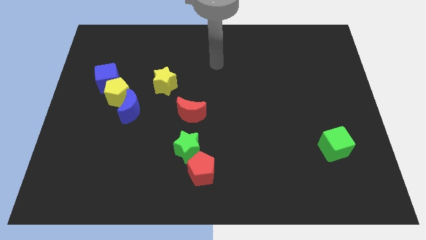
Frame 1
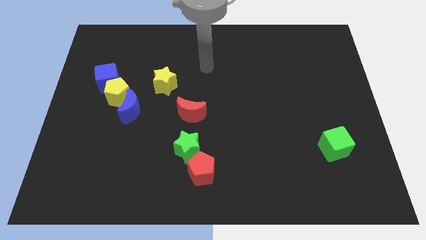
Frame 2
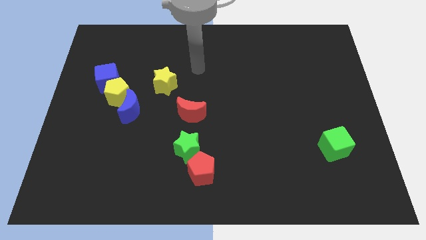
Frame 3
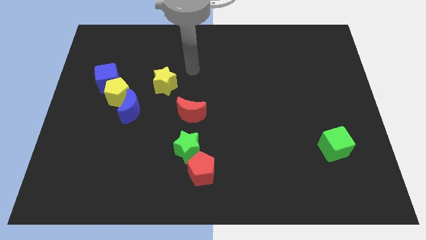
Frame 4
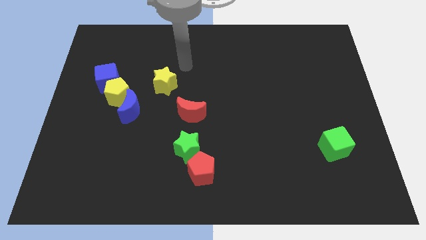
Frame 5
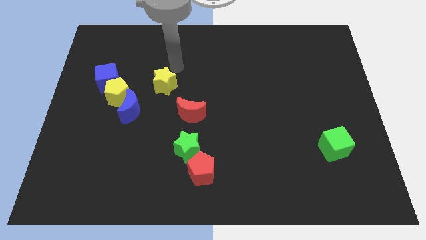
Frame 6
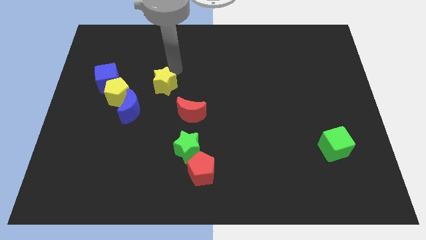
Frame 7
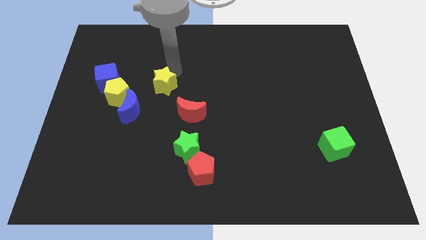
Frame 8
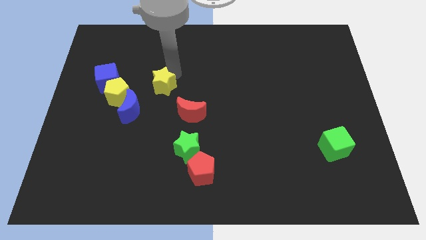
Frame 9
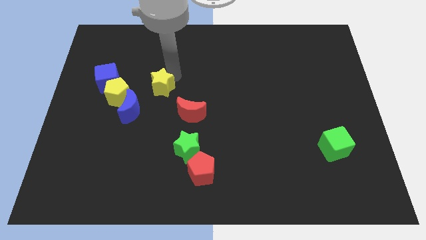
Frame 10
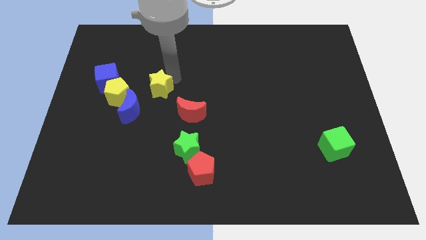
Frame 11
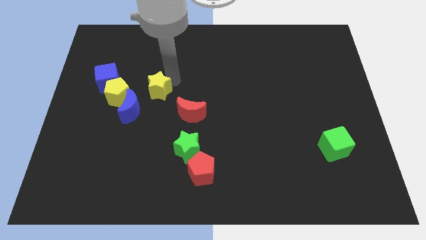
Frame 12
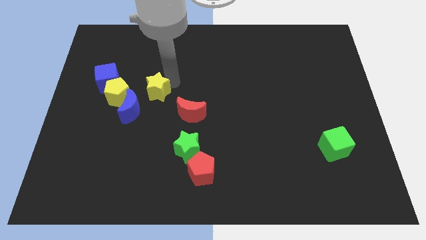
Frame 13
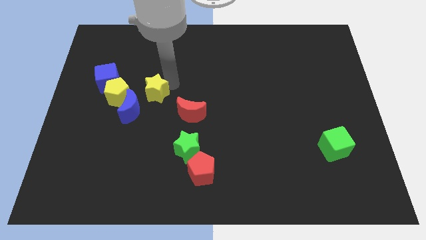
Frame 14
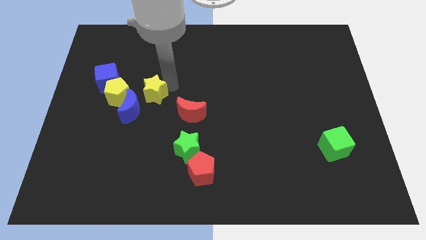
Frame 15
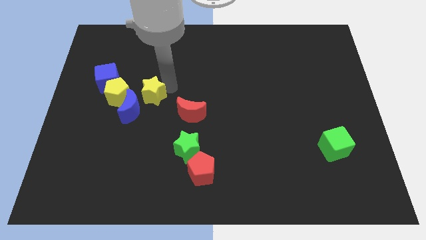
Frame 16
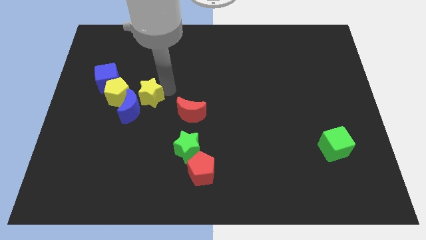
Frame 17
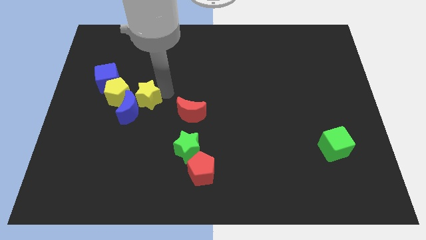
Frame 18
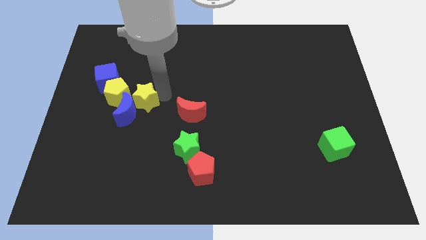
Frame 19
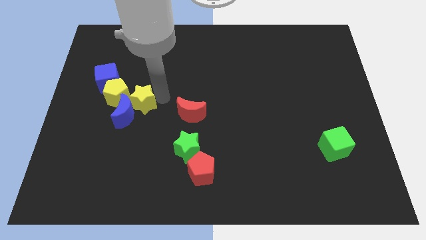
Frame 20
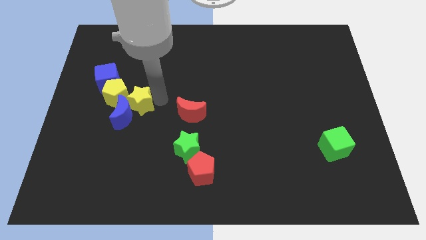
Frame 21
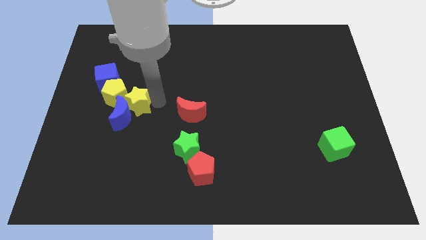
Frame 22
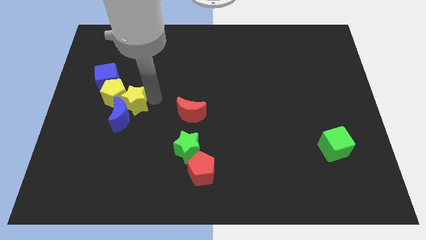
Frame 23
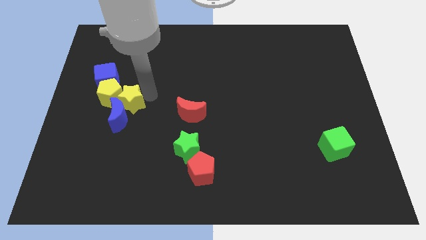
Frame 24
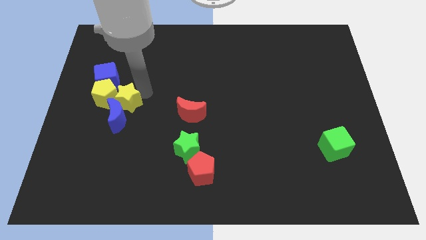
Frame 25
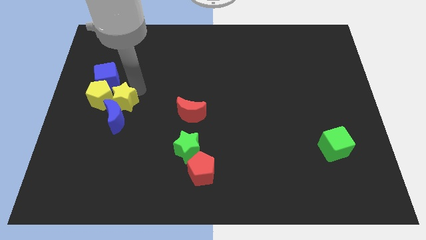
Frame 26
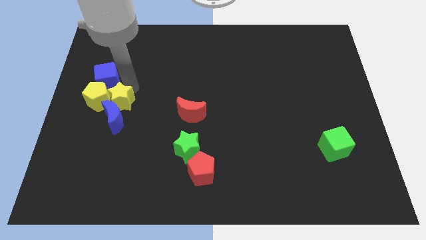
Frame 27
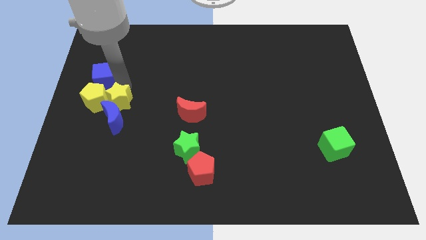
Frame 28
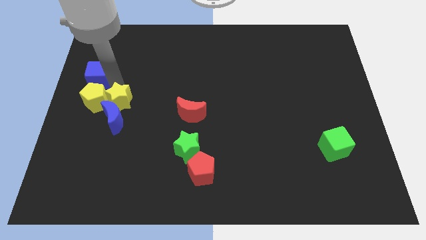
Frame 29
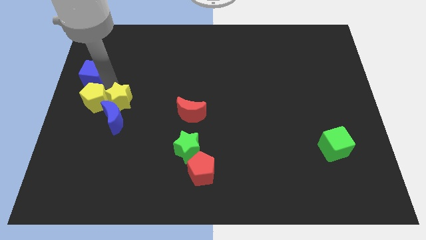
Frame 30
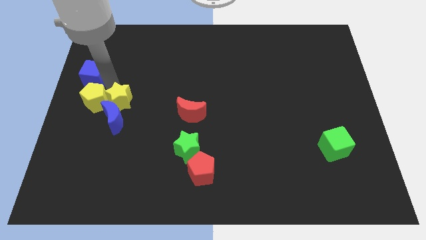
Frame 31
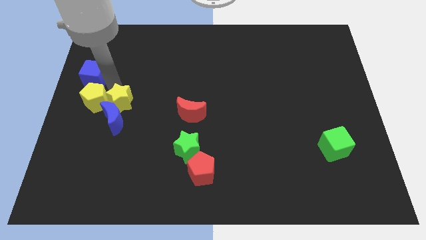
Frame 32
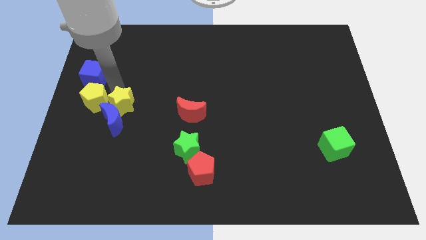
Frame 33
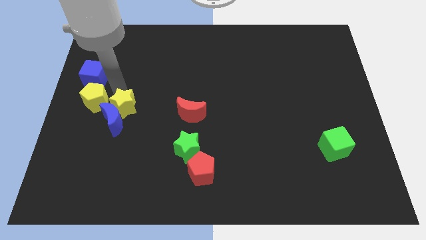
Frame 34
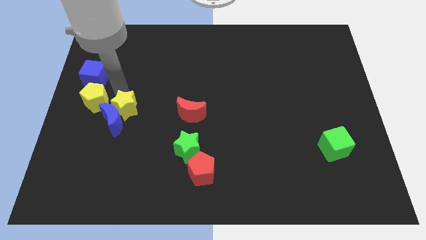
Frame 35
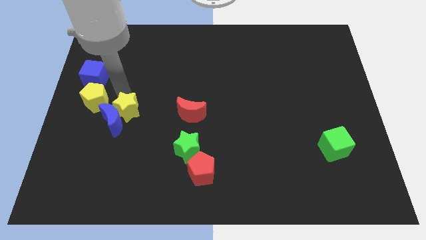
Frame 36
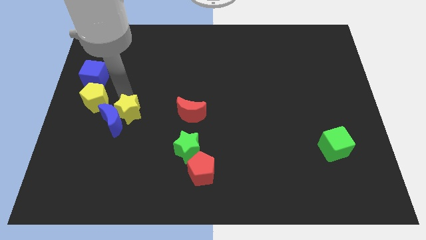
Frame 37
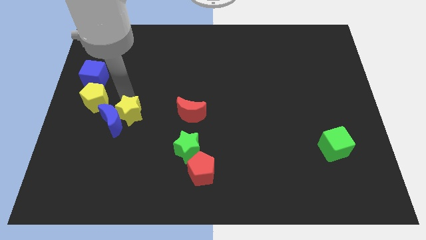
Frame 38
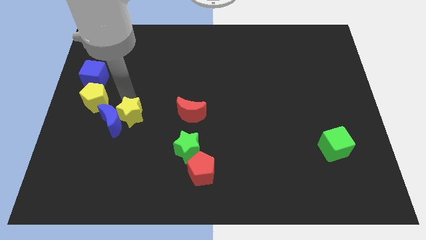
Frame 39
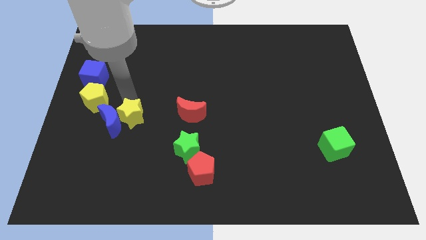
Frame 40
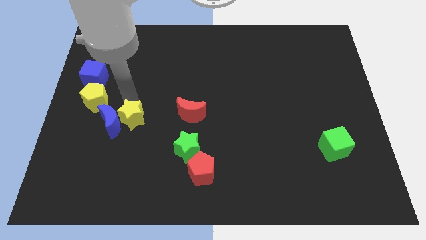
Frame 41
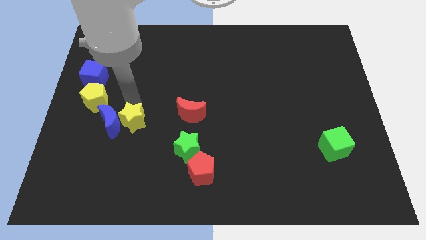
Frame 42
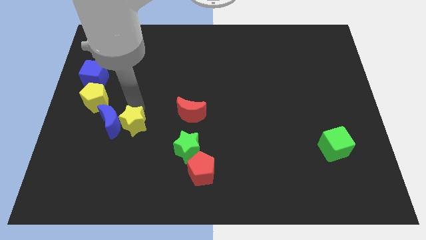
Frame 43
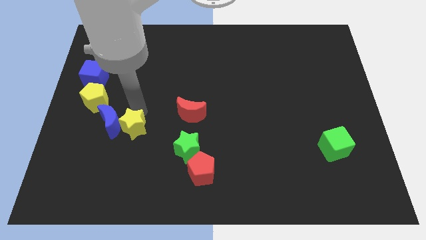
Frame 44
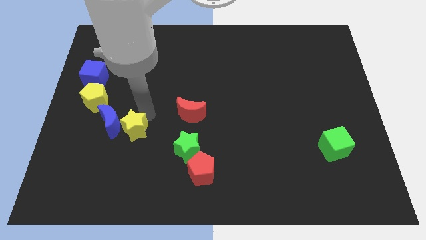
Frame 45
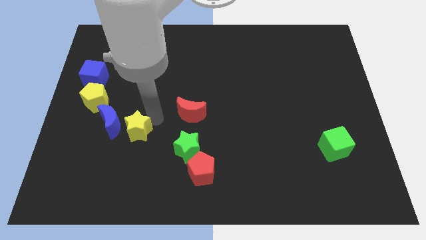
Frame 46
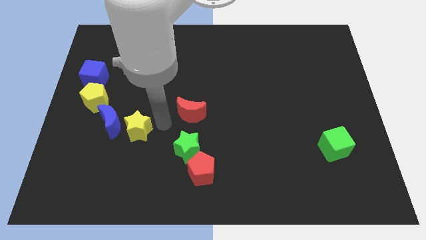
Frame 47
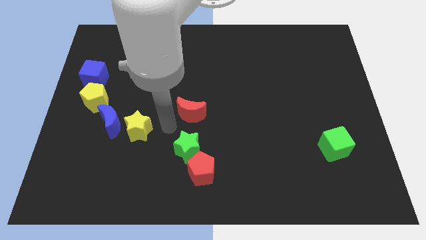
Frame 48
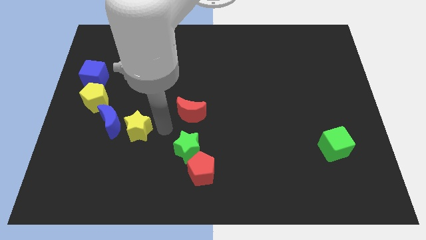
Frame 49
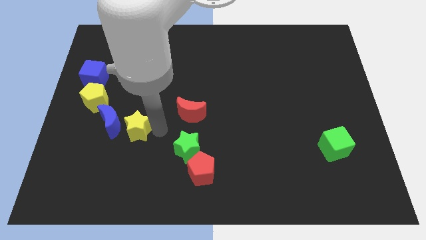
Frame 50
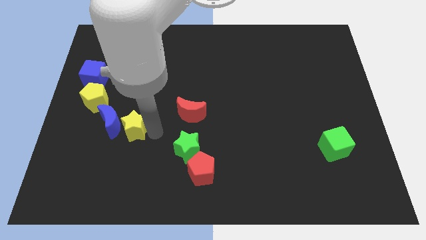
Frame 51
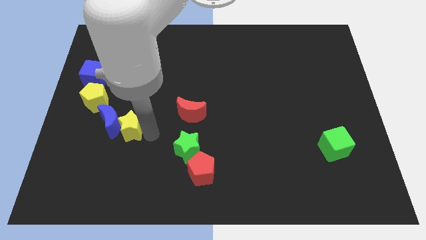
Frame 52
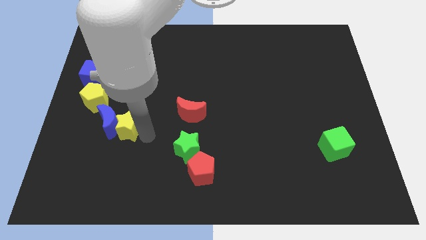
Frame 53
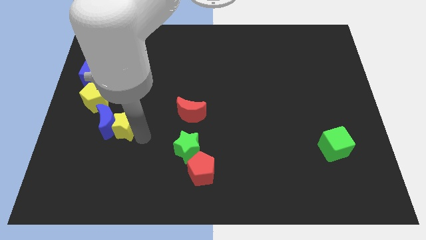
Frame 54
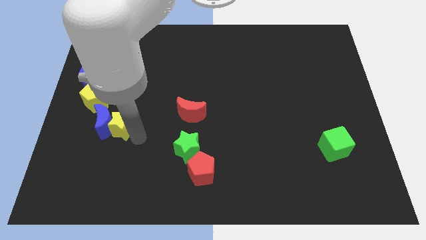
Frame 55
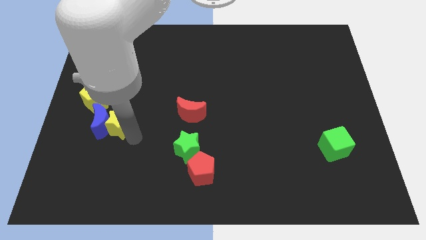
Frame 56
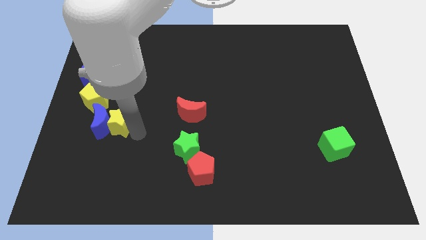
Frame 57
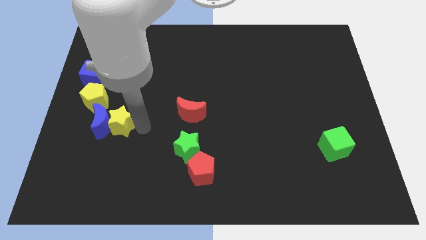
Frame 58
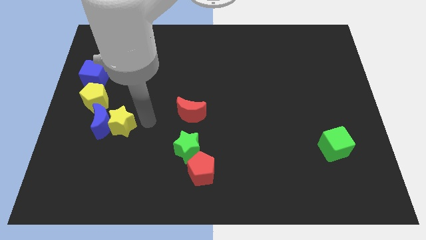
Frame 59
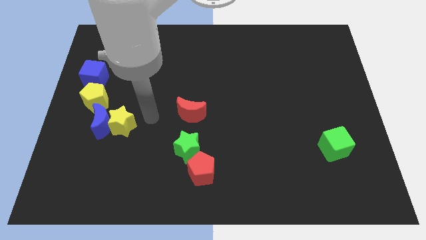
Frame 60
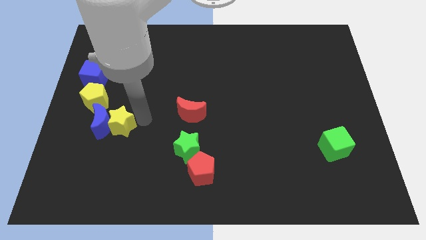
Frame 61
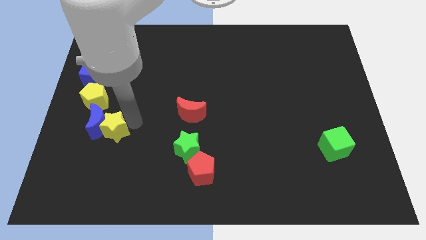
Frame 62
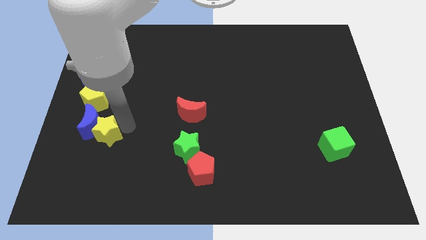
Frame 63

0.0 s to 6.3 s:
move the yellow star below the yellow pentagon

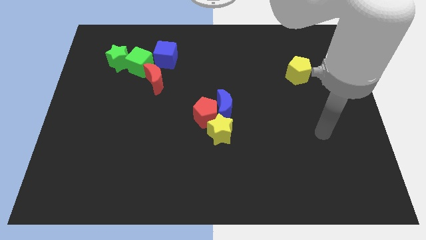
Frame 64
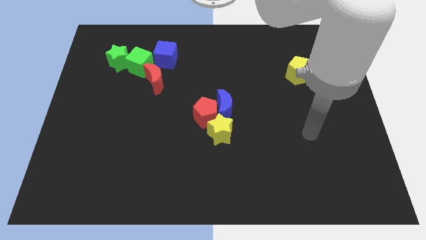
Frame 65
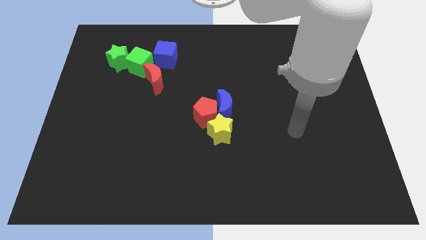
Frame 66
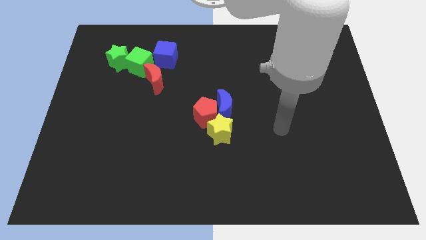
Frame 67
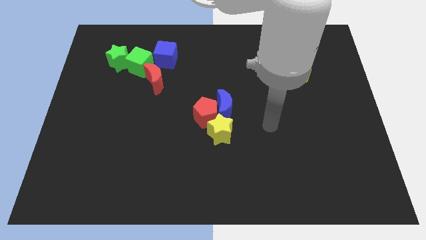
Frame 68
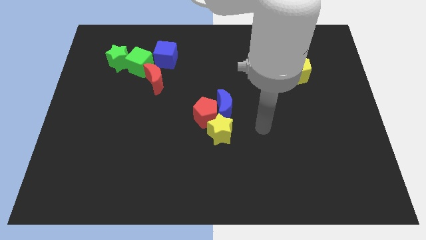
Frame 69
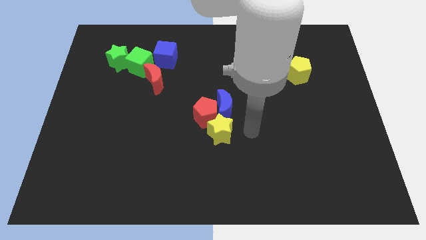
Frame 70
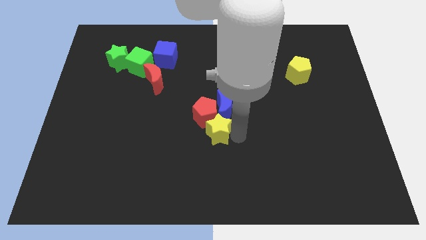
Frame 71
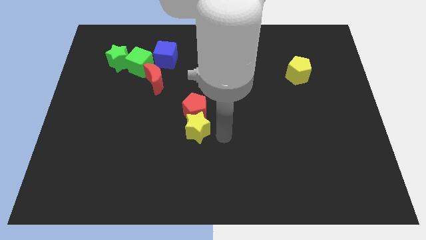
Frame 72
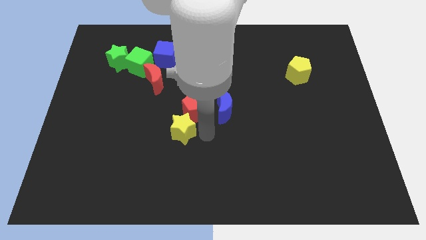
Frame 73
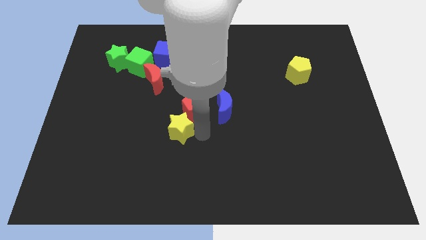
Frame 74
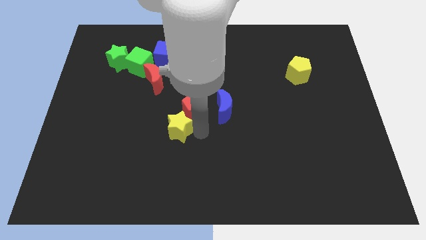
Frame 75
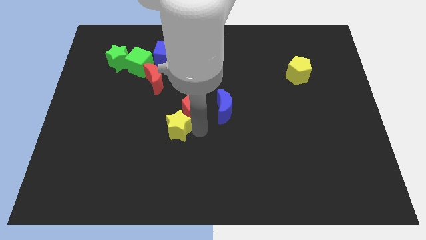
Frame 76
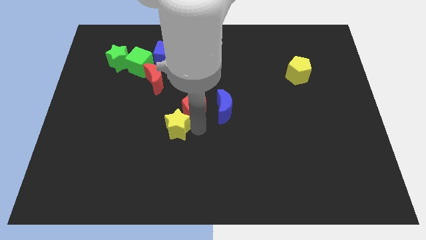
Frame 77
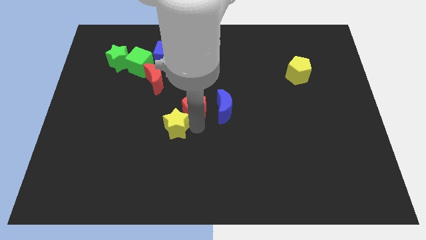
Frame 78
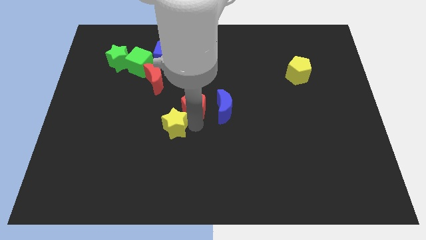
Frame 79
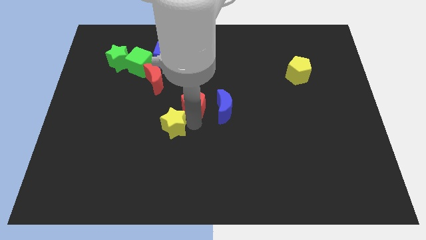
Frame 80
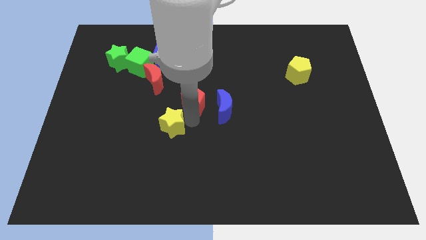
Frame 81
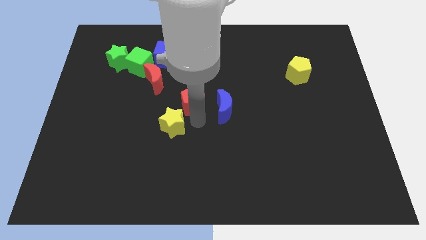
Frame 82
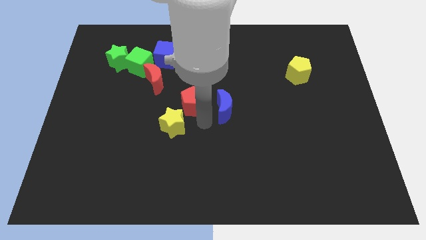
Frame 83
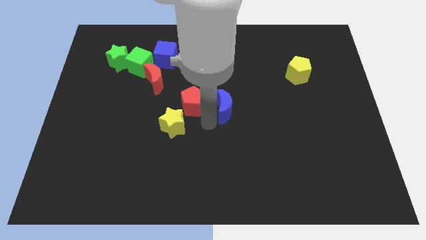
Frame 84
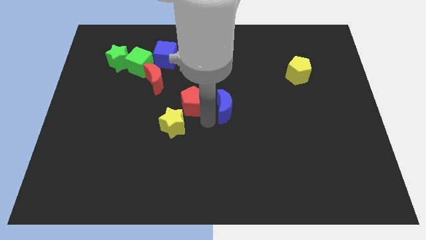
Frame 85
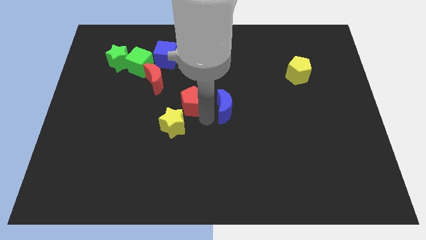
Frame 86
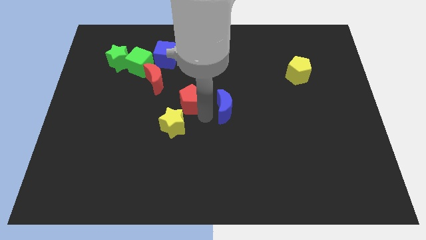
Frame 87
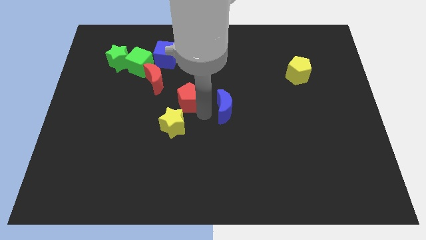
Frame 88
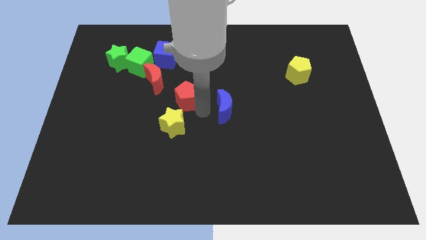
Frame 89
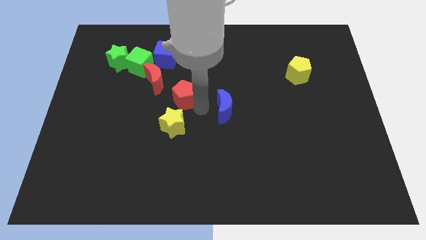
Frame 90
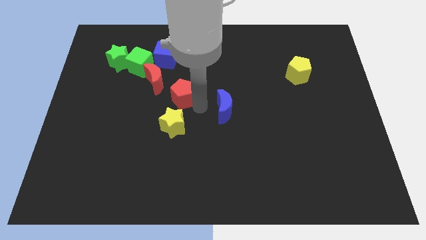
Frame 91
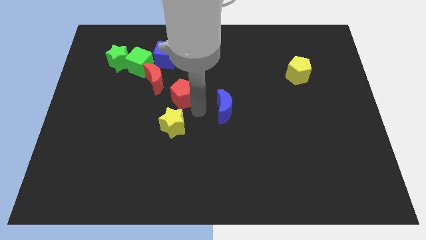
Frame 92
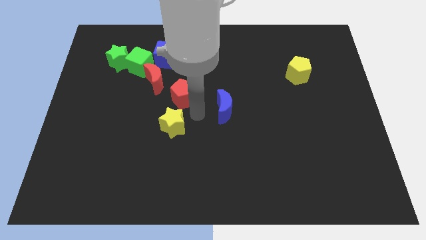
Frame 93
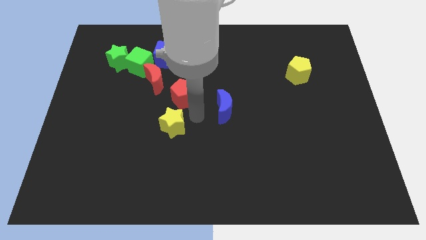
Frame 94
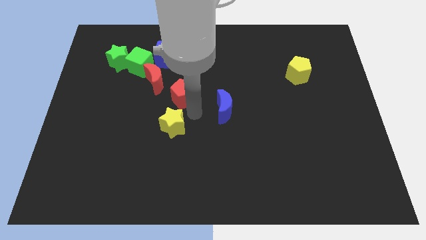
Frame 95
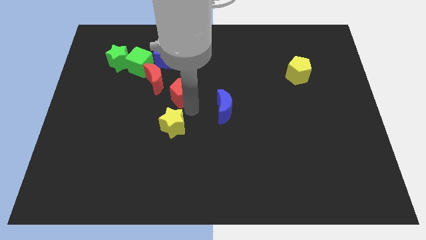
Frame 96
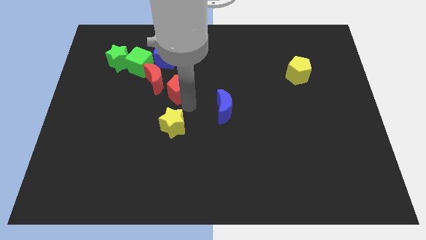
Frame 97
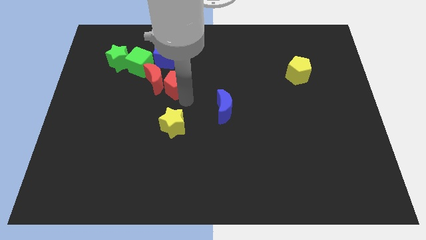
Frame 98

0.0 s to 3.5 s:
put the red pentagon to the bottom right of the green cube
